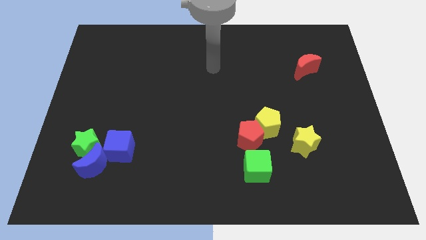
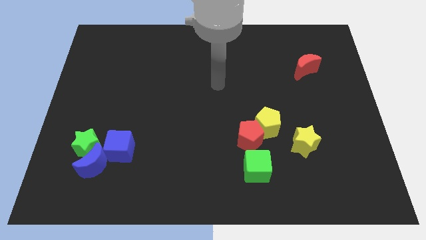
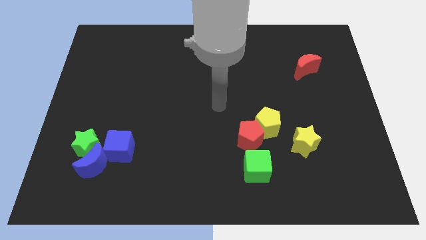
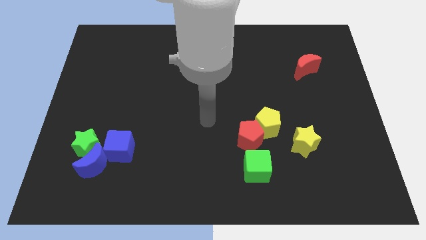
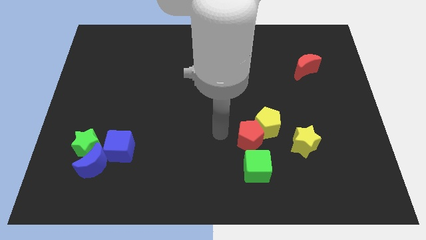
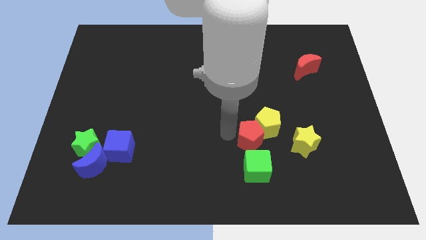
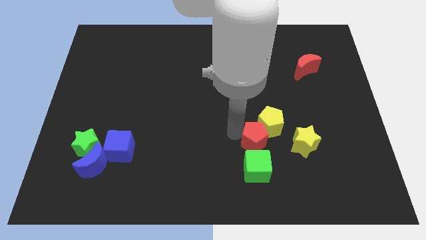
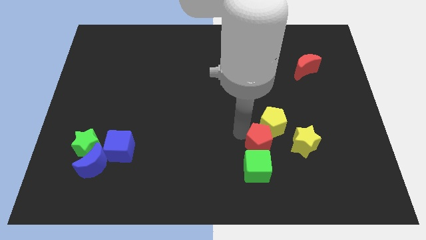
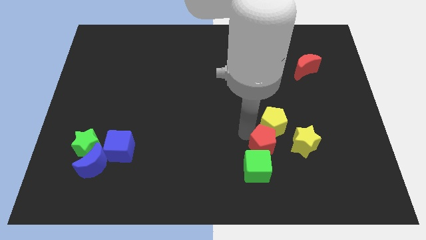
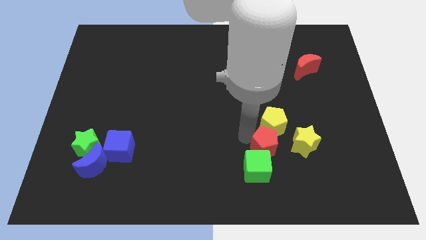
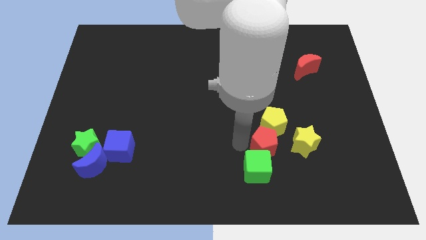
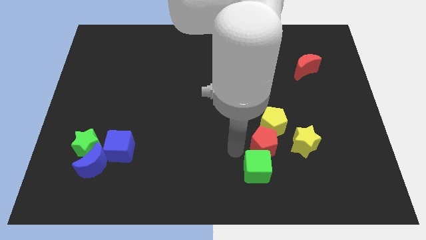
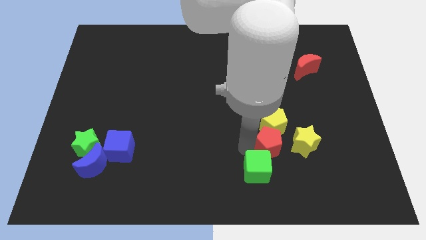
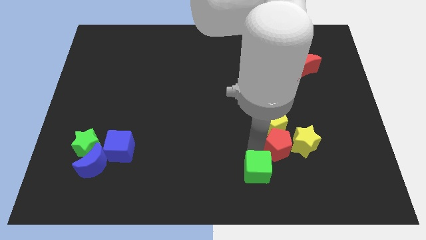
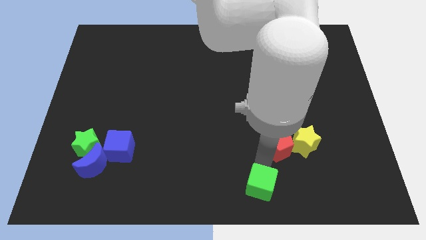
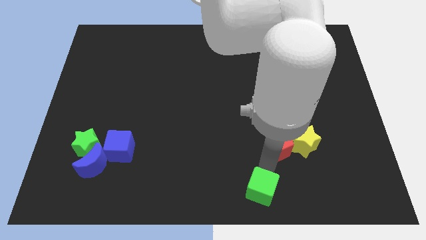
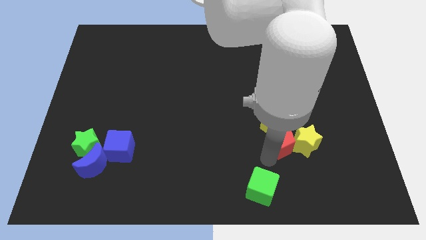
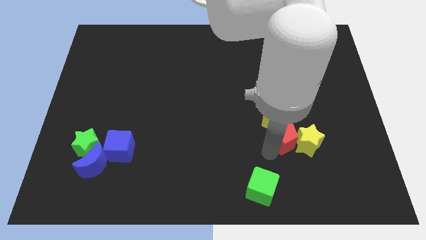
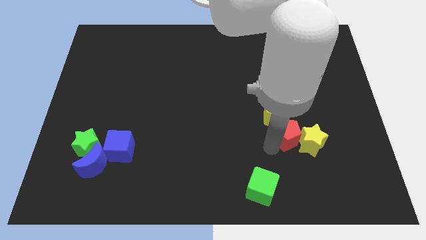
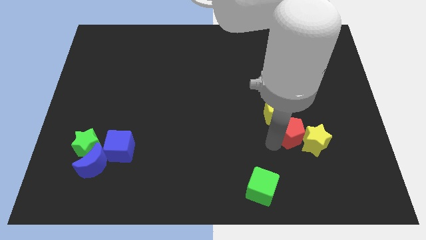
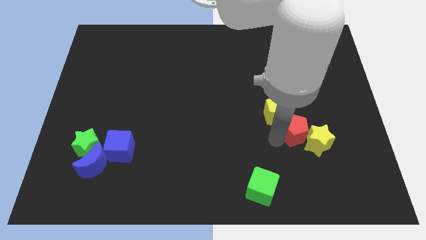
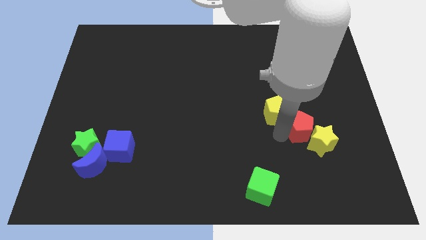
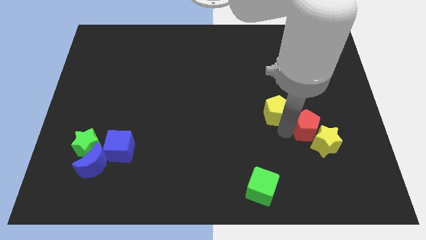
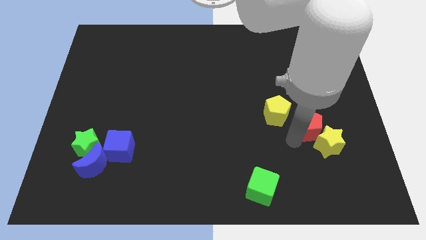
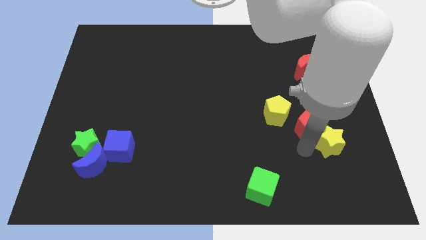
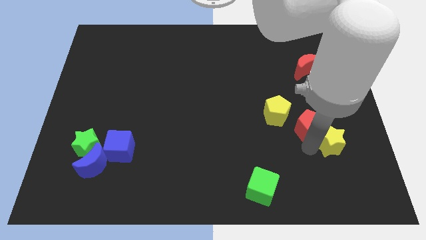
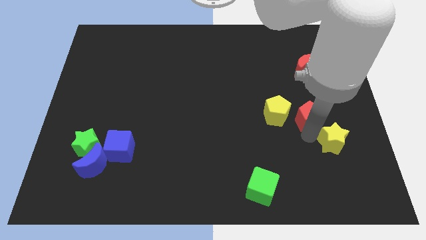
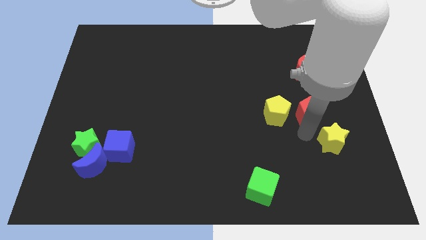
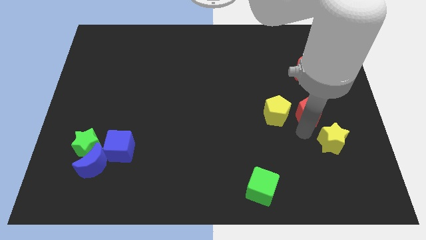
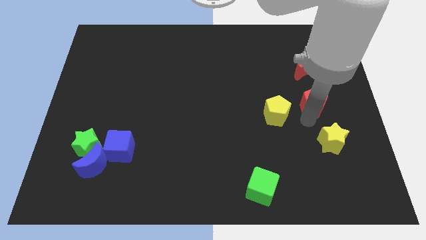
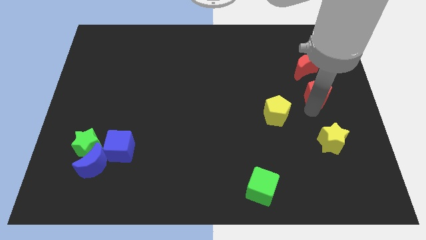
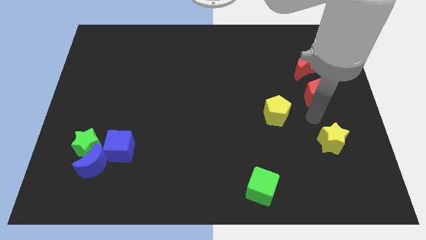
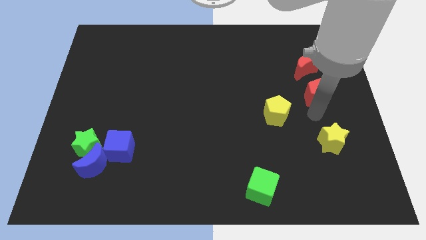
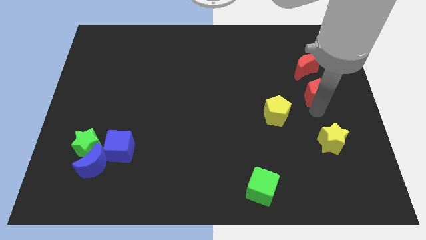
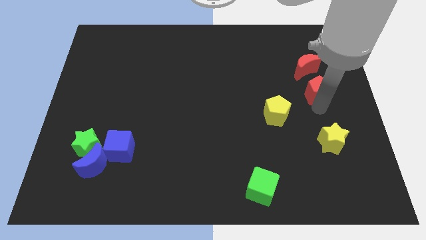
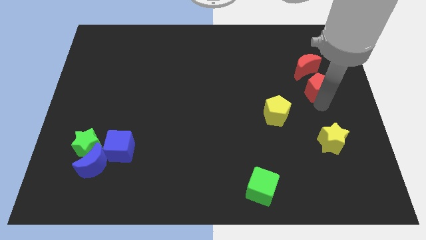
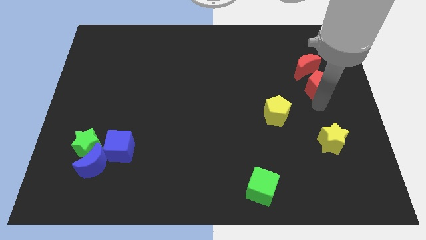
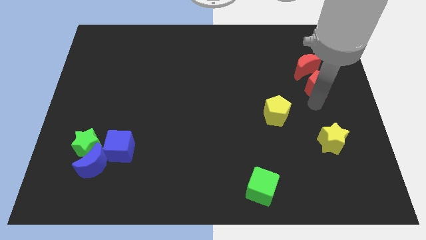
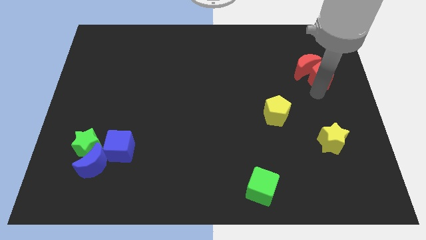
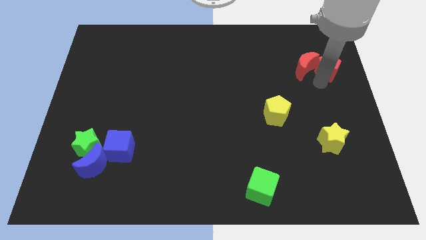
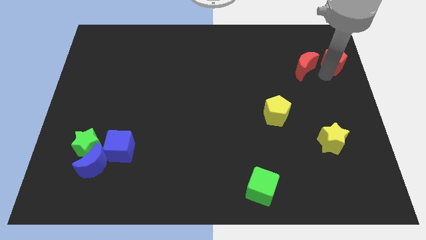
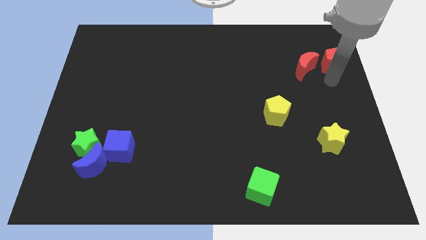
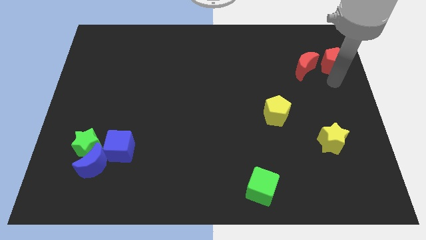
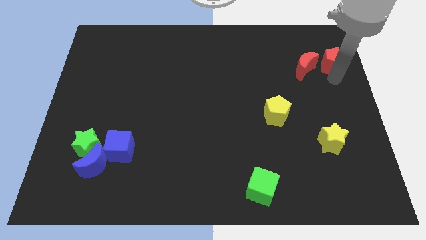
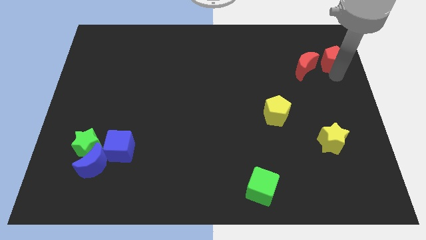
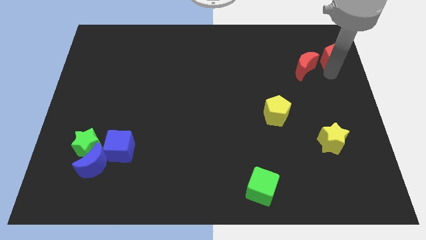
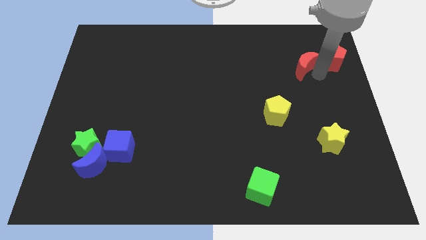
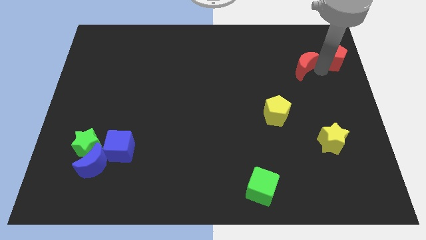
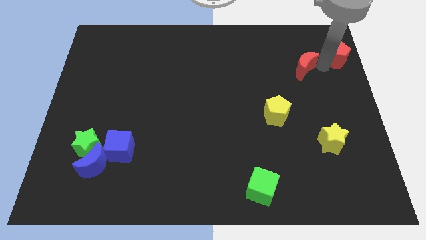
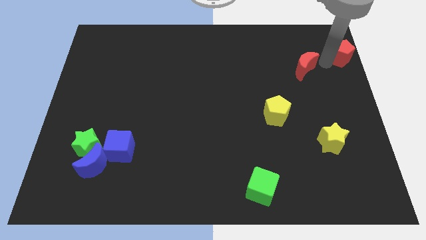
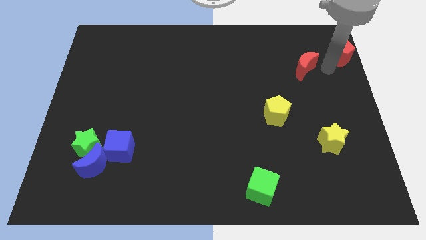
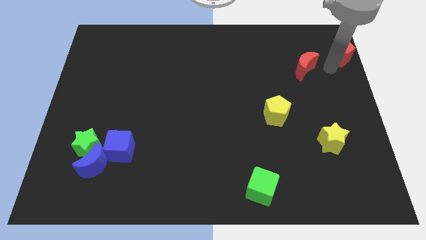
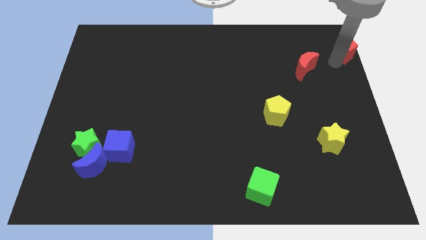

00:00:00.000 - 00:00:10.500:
slide the red pentagon to the upper right corner
